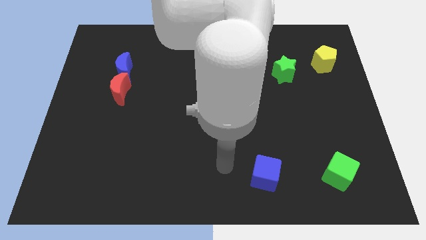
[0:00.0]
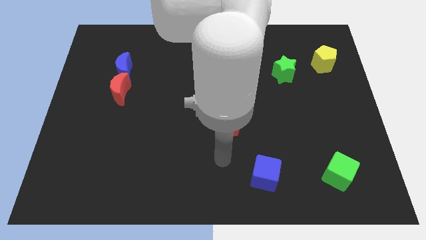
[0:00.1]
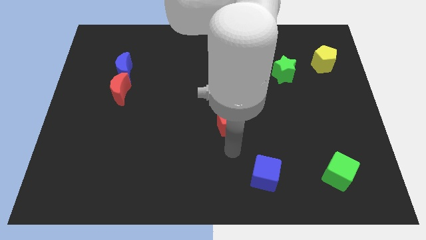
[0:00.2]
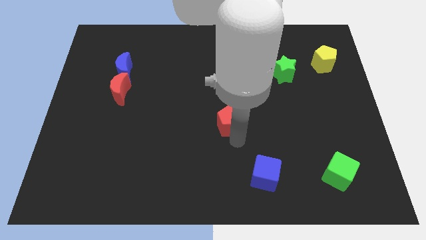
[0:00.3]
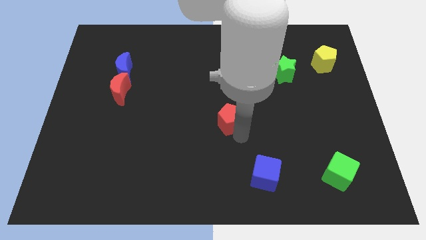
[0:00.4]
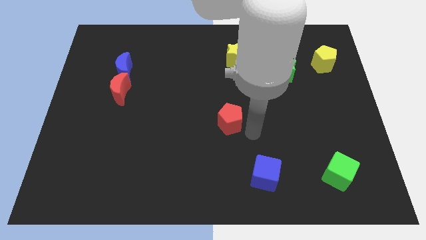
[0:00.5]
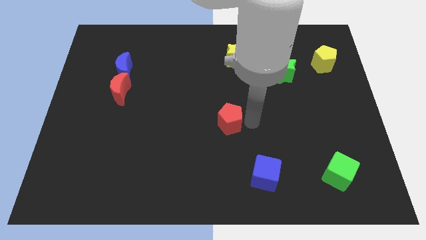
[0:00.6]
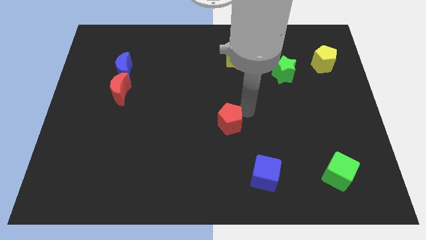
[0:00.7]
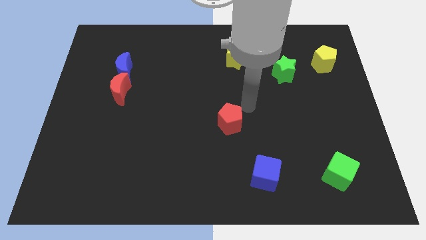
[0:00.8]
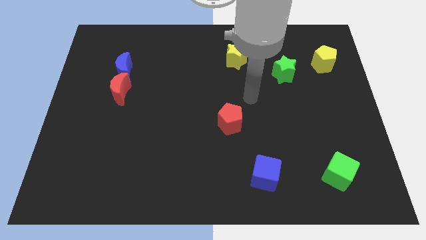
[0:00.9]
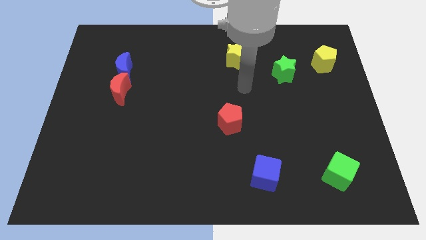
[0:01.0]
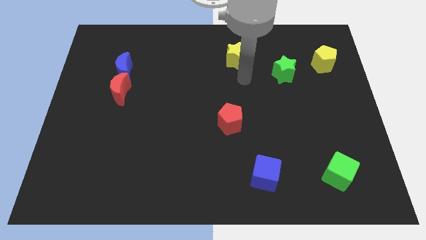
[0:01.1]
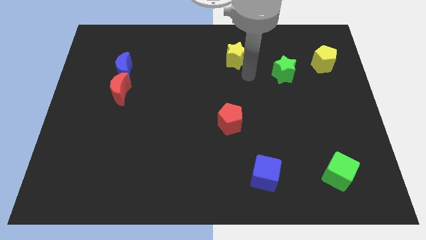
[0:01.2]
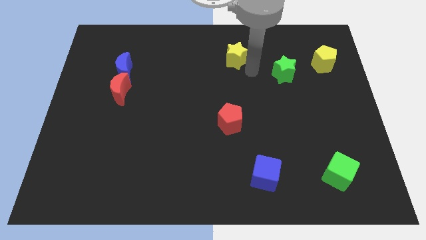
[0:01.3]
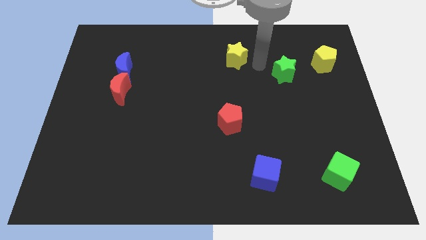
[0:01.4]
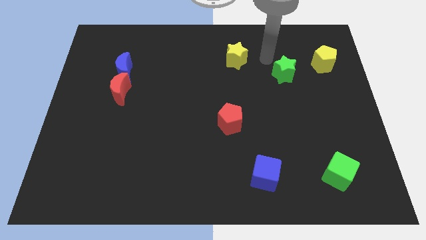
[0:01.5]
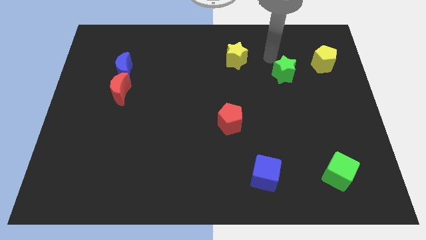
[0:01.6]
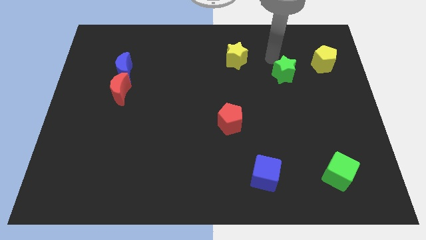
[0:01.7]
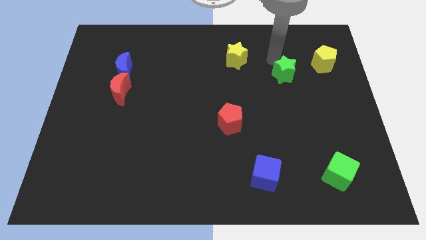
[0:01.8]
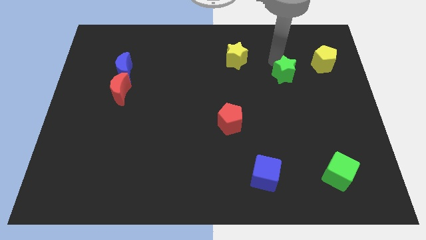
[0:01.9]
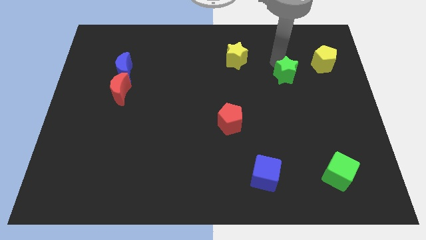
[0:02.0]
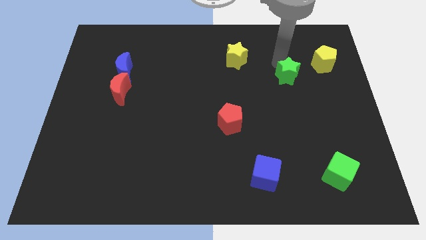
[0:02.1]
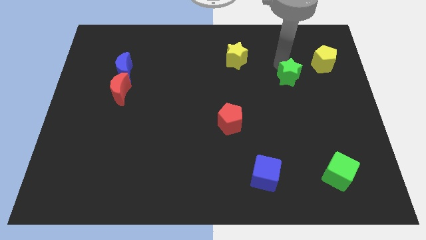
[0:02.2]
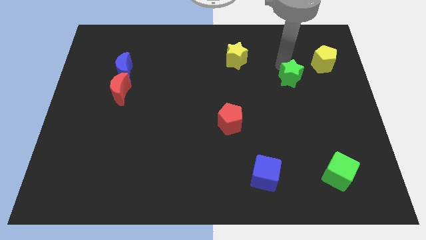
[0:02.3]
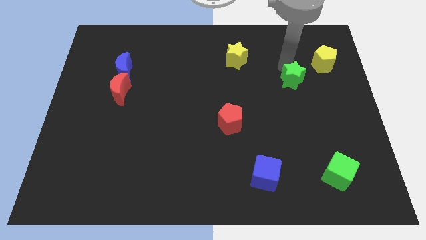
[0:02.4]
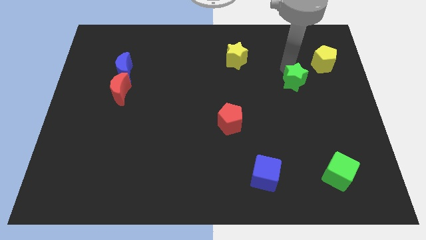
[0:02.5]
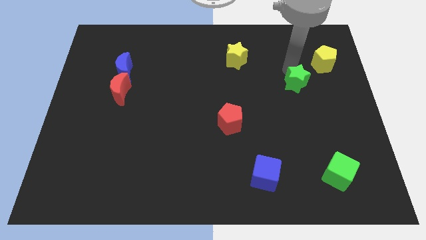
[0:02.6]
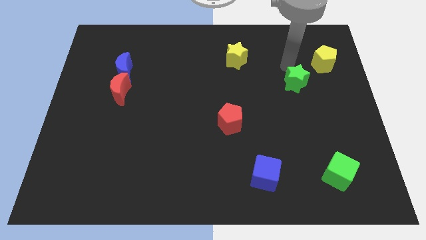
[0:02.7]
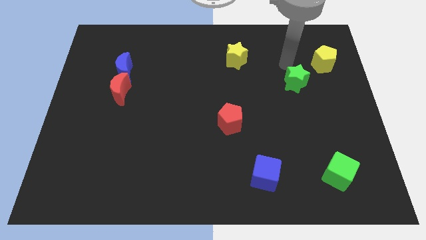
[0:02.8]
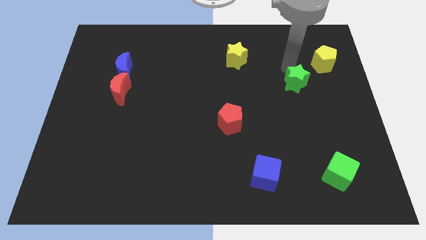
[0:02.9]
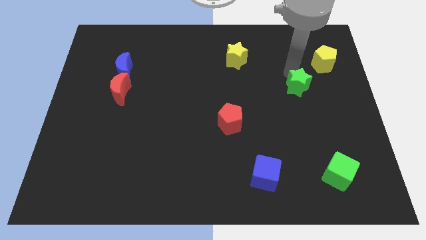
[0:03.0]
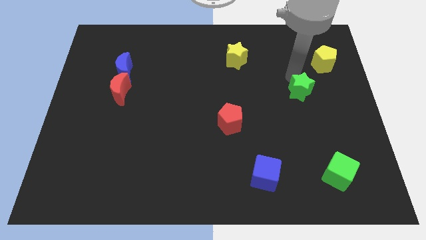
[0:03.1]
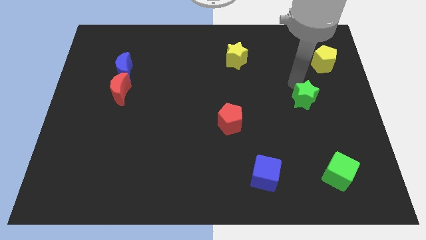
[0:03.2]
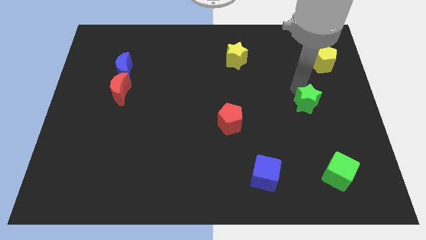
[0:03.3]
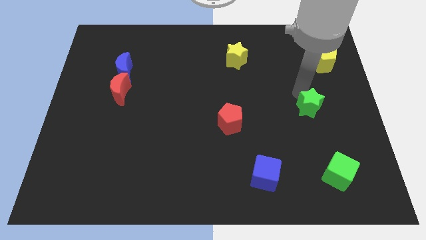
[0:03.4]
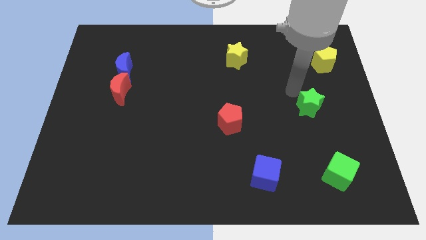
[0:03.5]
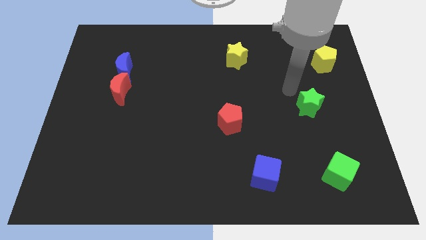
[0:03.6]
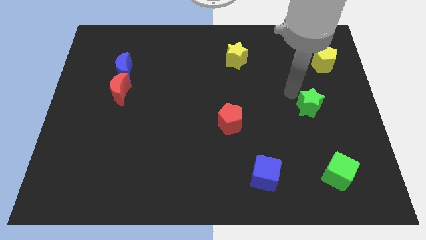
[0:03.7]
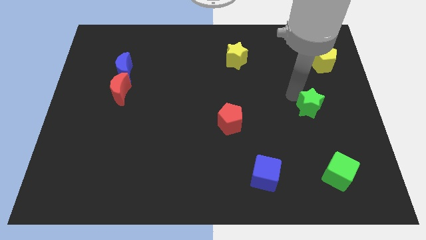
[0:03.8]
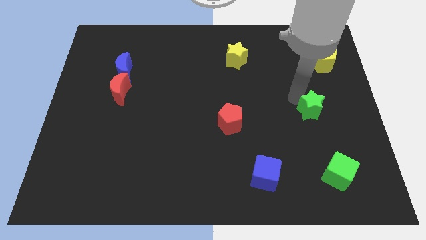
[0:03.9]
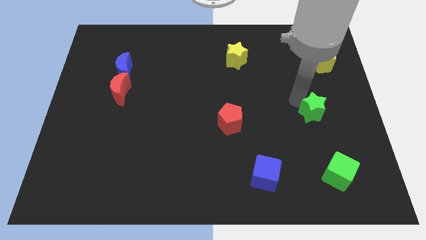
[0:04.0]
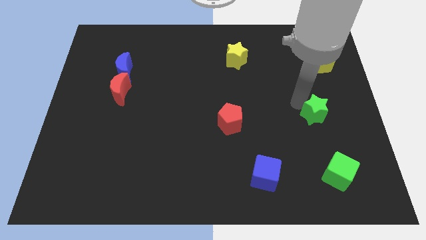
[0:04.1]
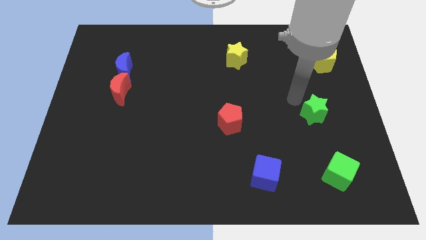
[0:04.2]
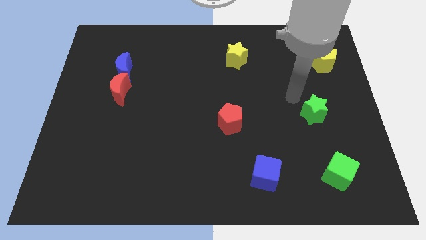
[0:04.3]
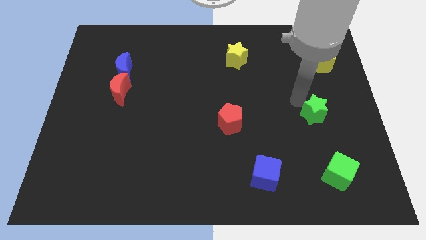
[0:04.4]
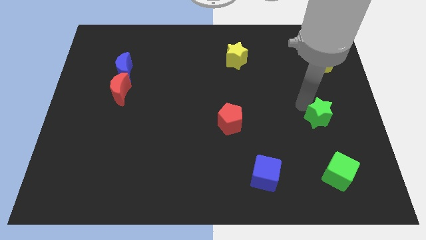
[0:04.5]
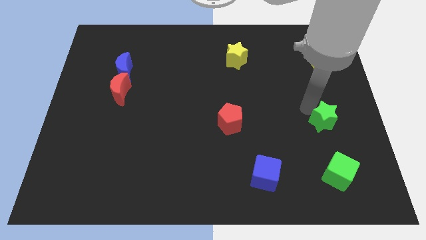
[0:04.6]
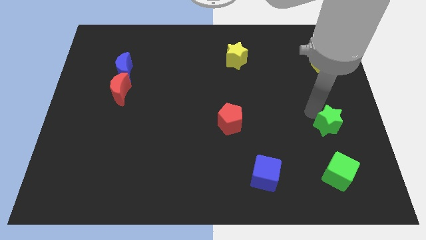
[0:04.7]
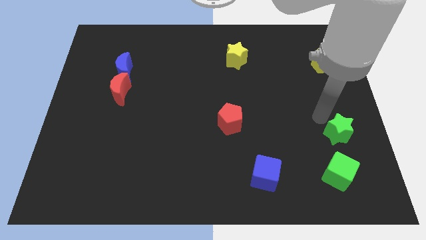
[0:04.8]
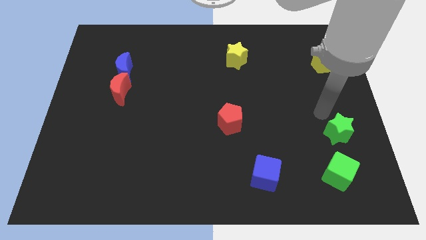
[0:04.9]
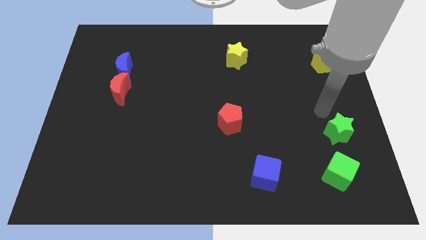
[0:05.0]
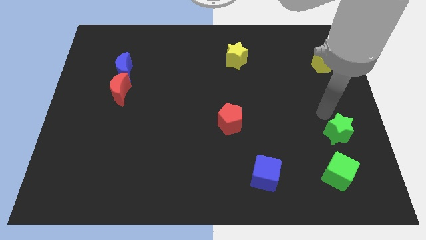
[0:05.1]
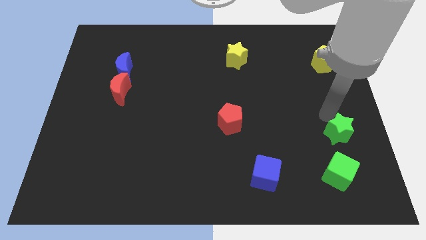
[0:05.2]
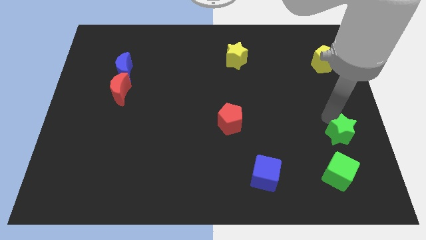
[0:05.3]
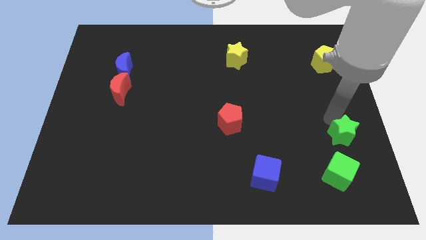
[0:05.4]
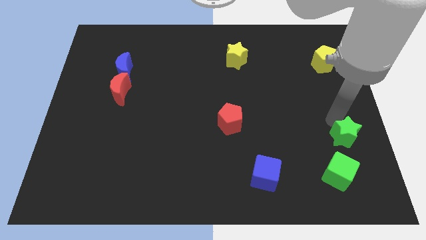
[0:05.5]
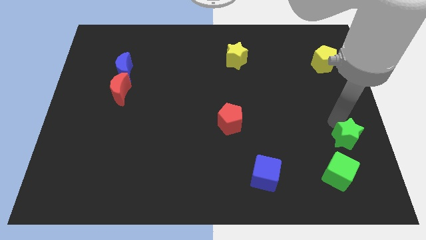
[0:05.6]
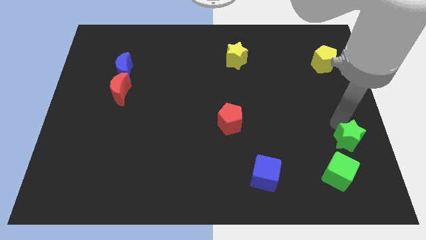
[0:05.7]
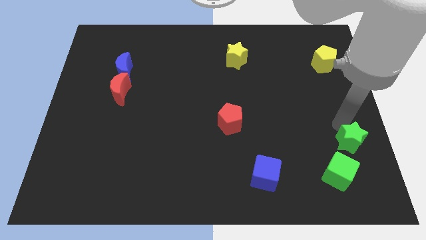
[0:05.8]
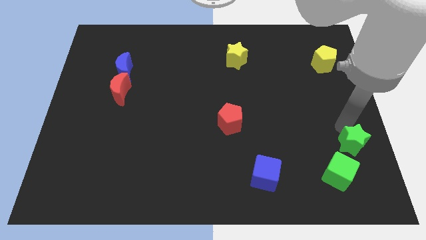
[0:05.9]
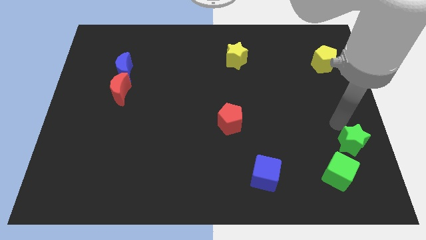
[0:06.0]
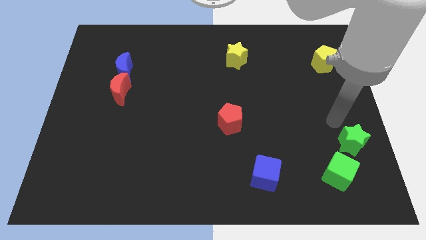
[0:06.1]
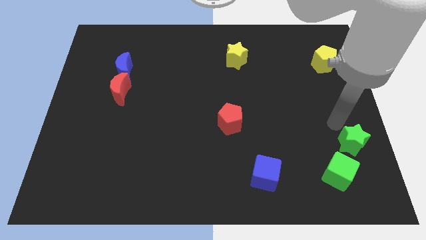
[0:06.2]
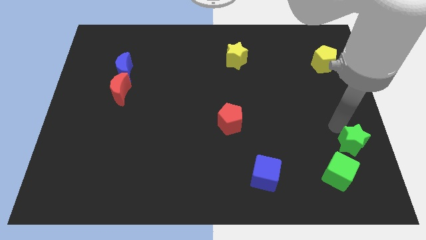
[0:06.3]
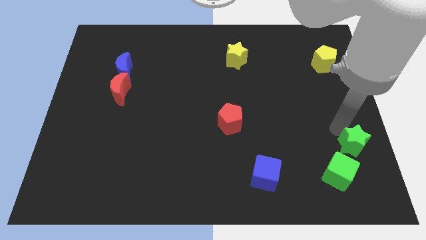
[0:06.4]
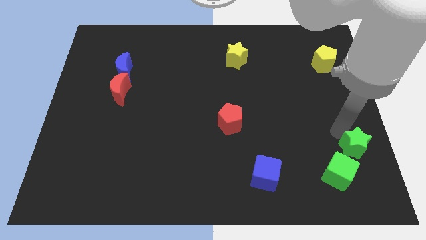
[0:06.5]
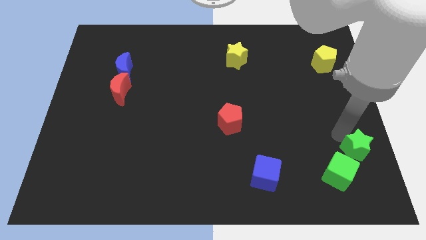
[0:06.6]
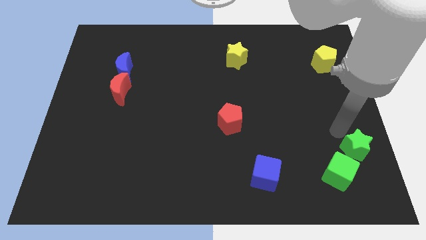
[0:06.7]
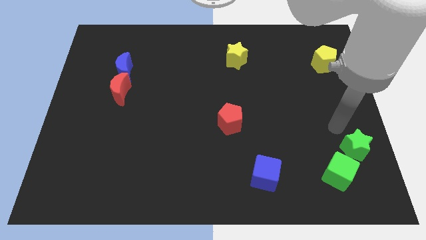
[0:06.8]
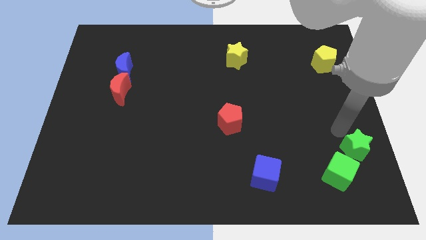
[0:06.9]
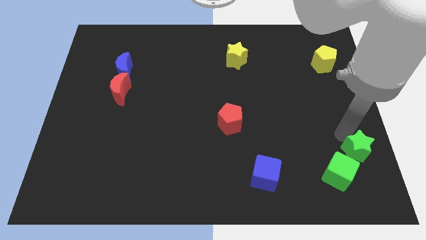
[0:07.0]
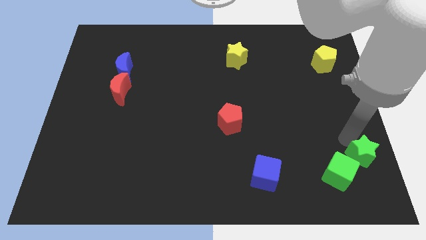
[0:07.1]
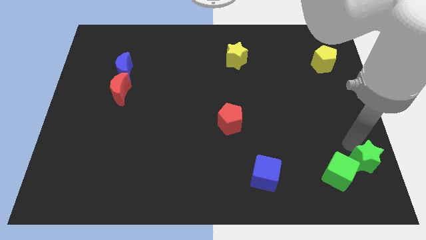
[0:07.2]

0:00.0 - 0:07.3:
put the green star to the bottom right
